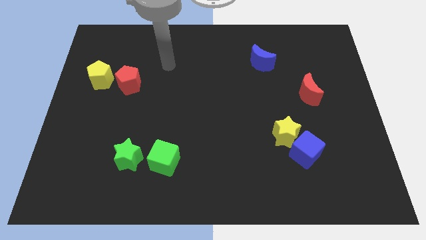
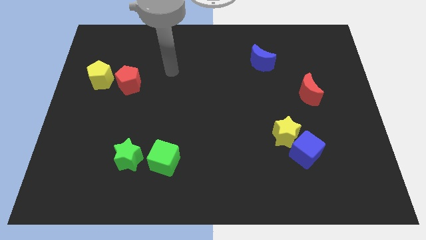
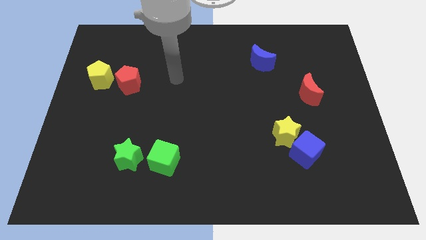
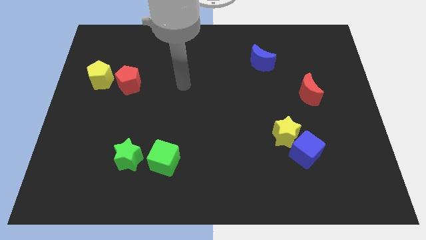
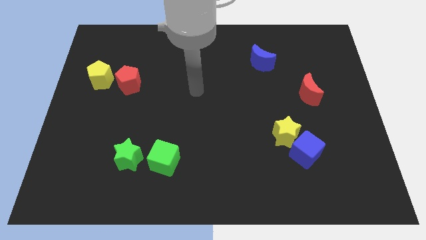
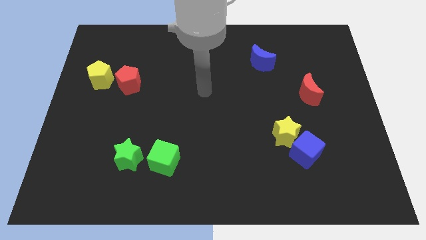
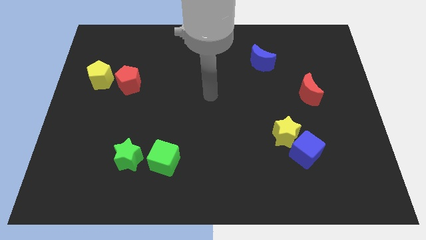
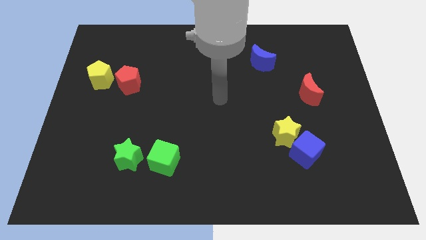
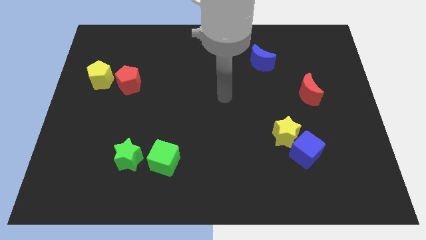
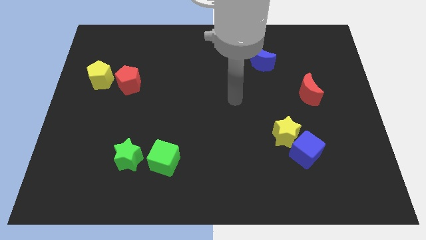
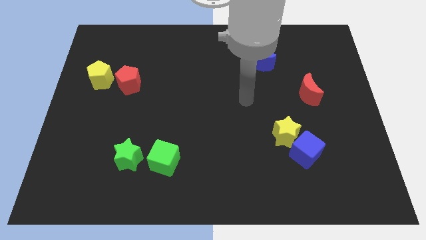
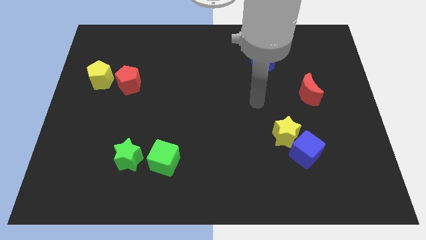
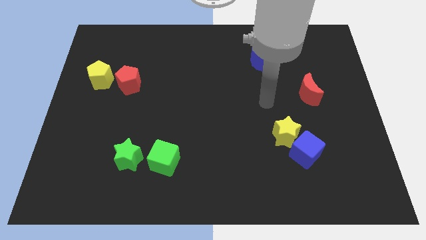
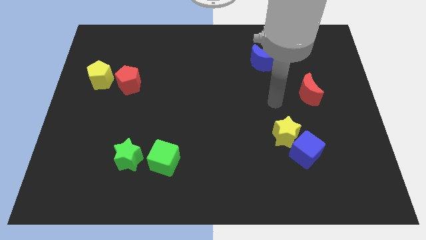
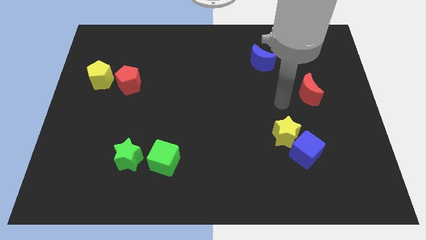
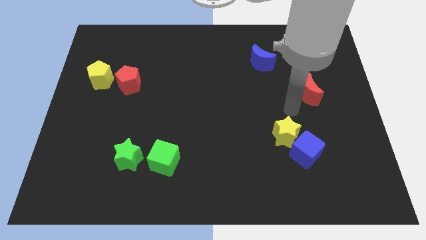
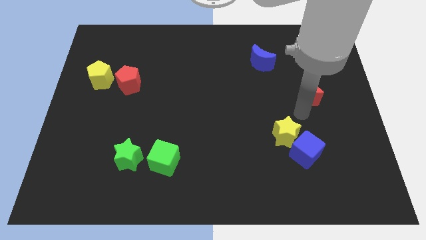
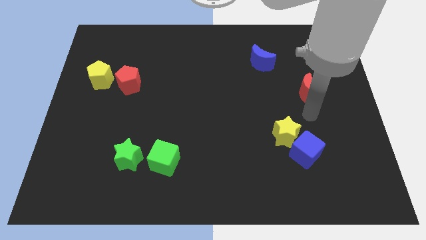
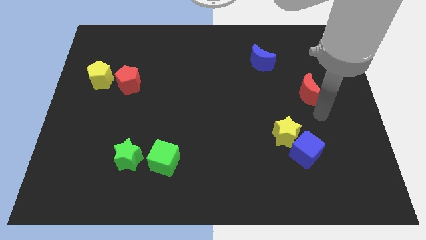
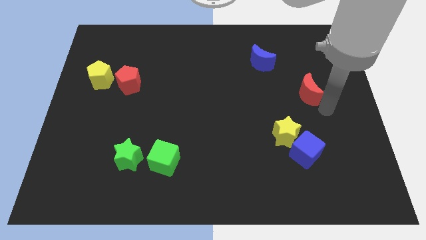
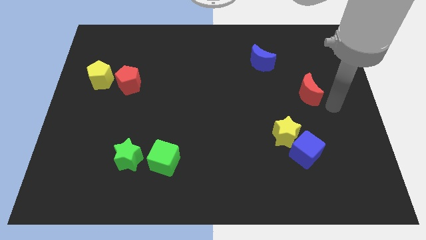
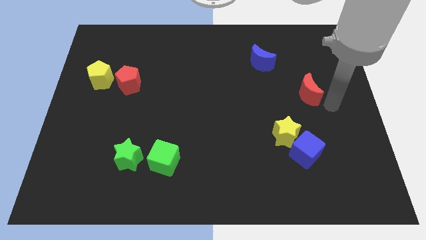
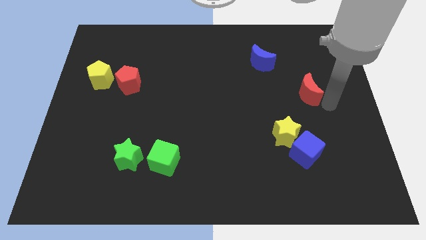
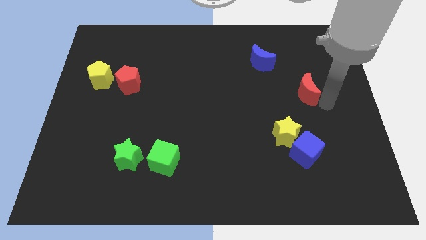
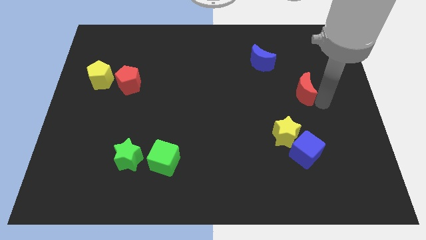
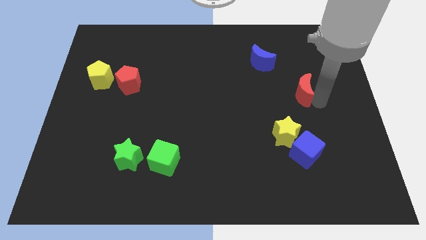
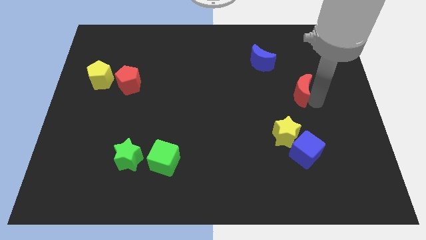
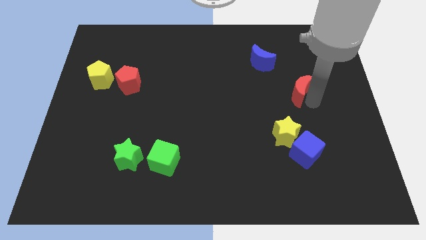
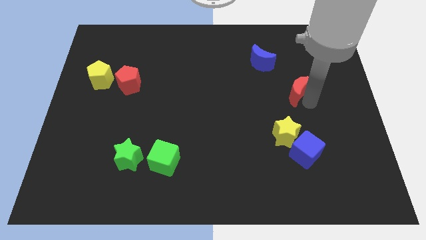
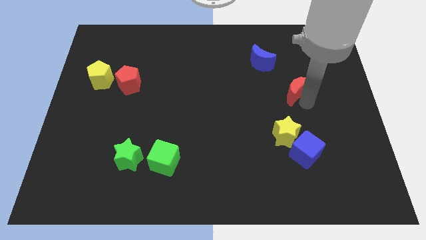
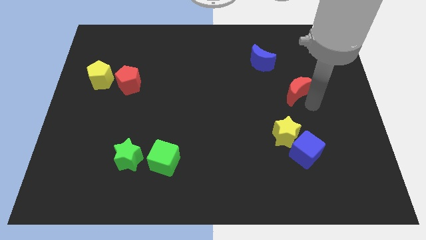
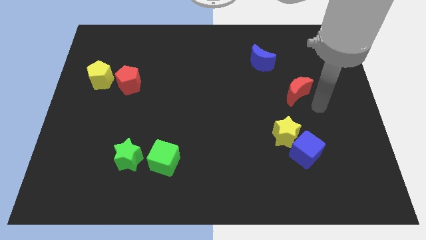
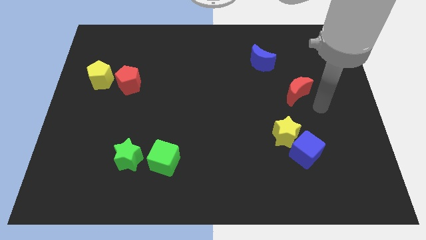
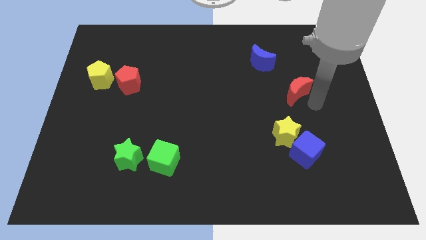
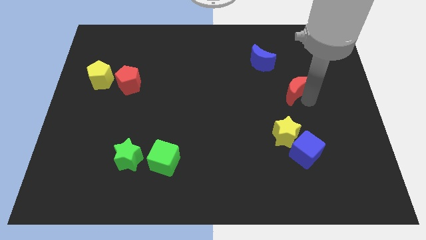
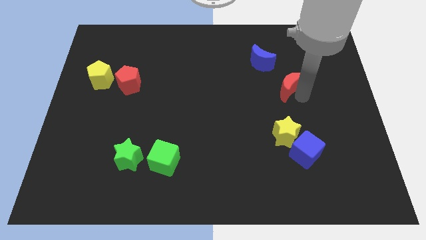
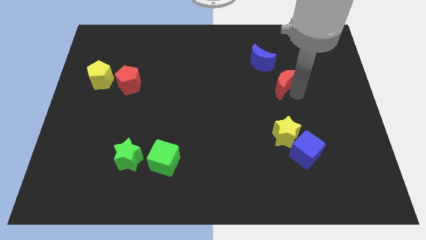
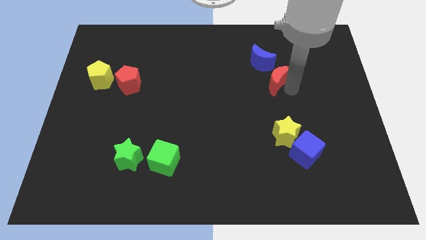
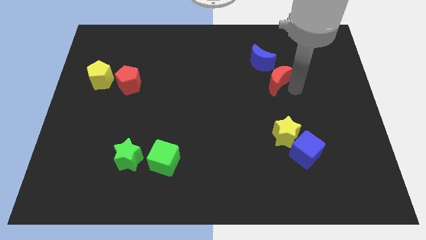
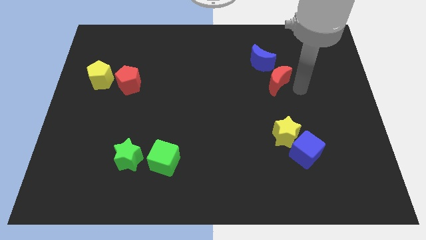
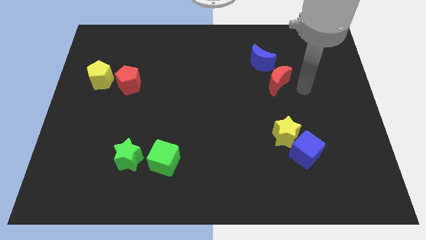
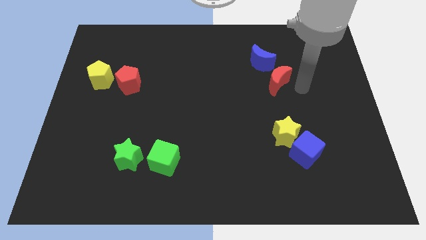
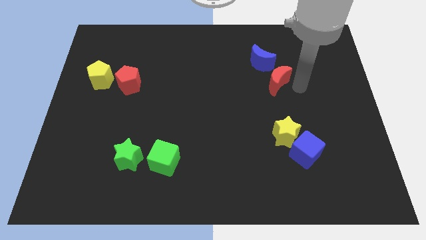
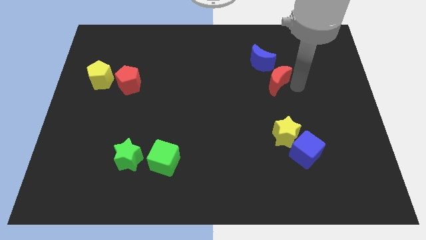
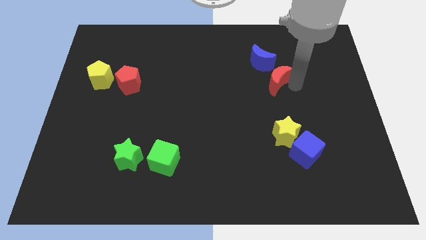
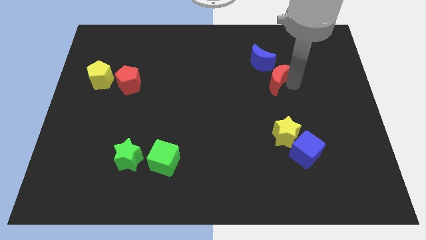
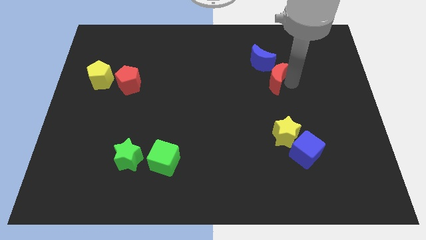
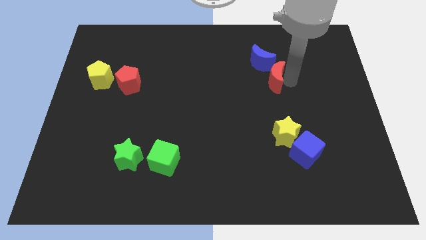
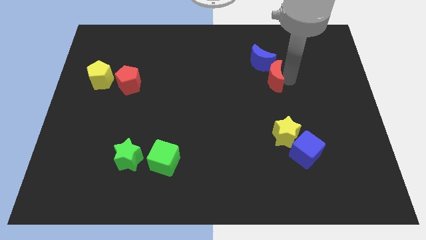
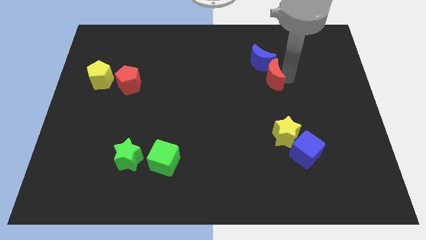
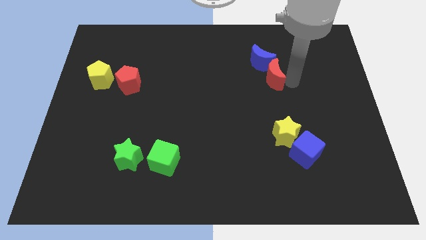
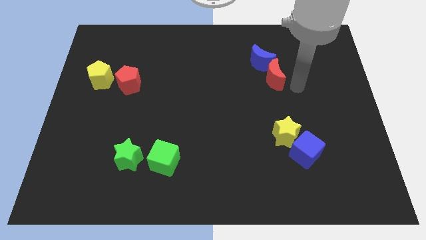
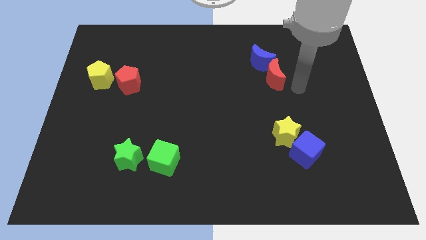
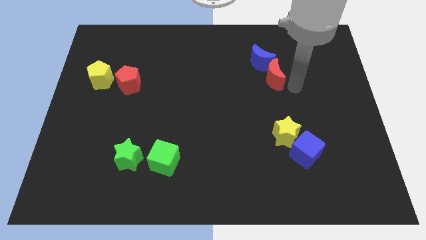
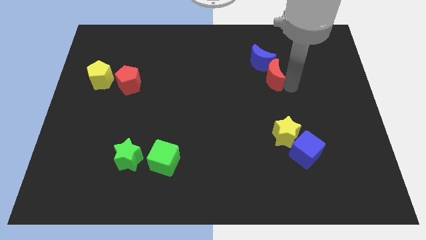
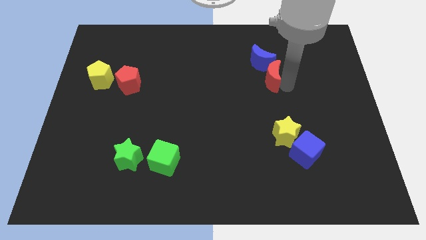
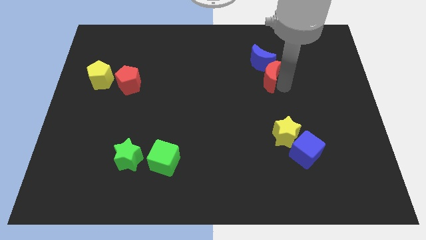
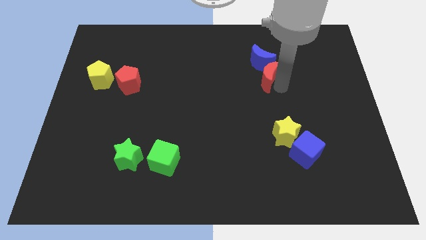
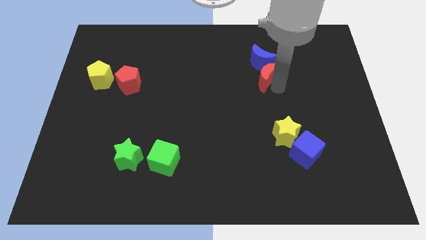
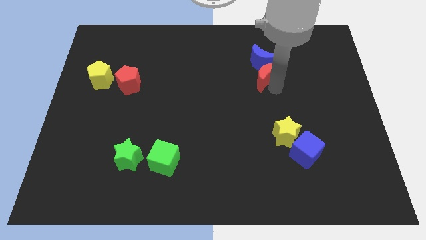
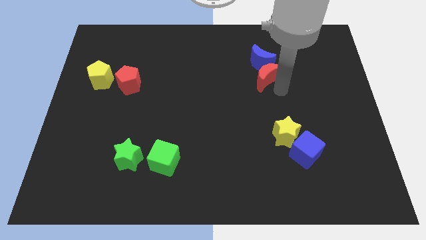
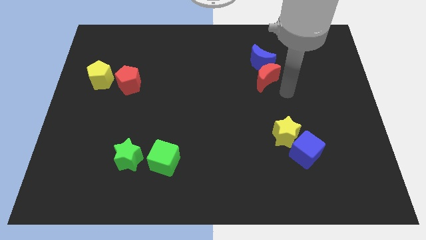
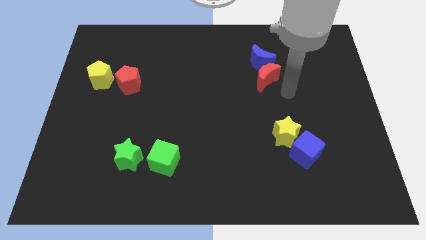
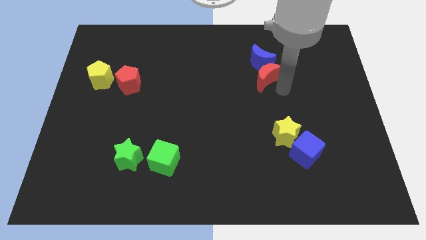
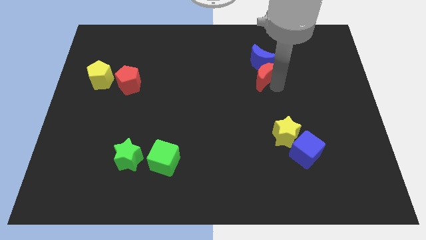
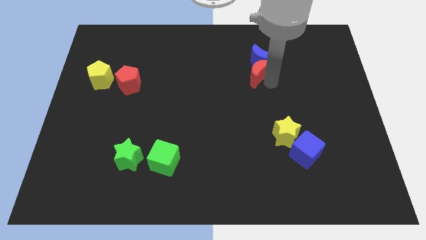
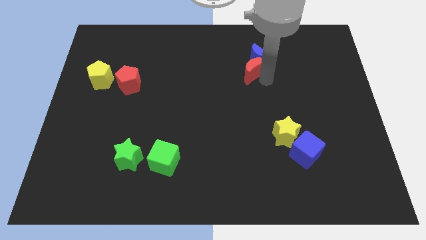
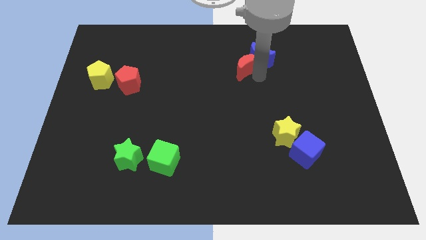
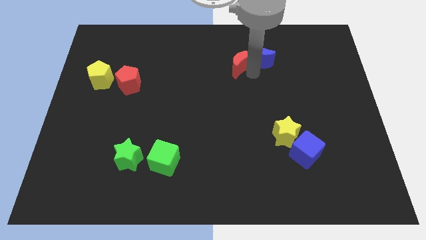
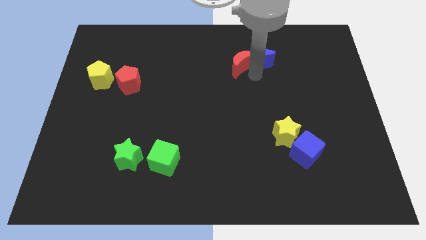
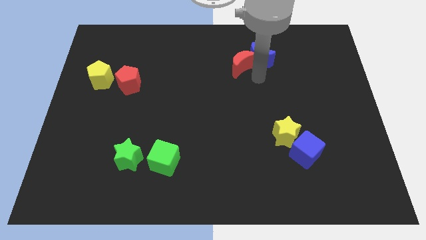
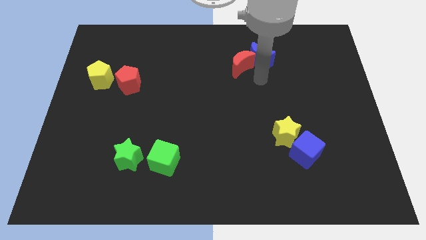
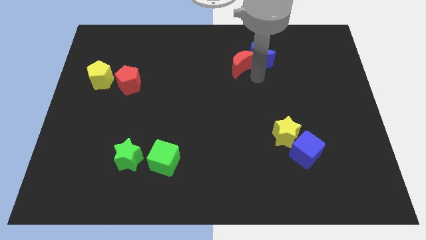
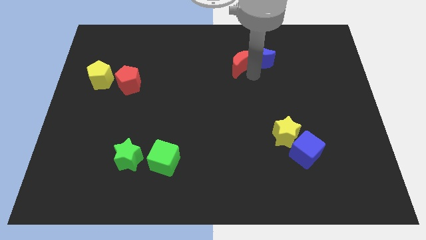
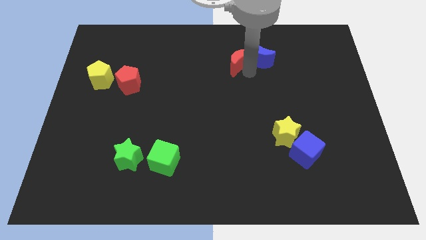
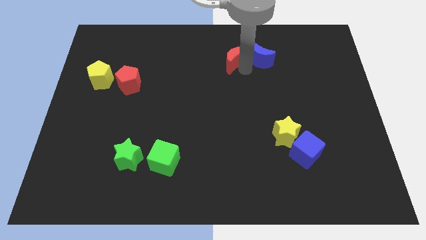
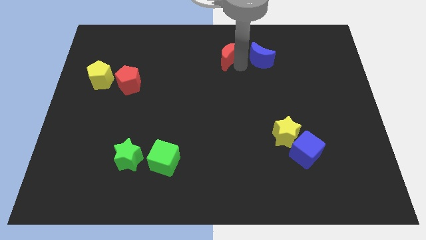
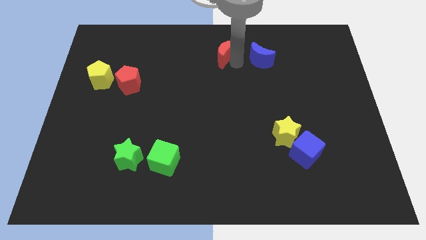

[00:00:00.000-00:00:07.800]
slide the red moon to the towards your base
